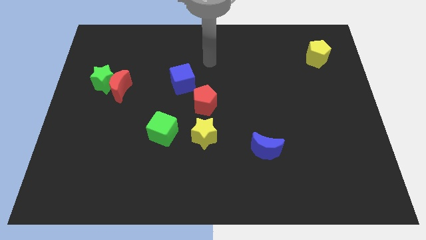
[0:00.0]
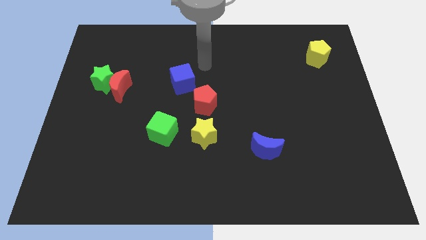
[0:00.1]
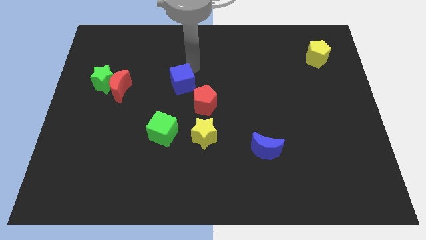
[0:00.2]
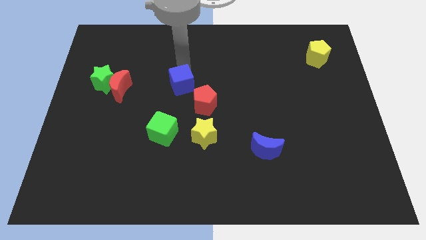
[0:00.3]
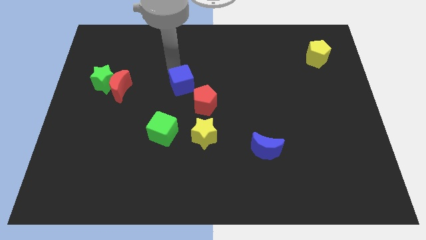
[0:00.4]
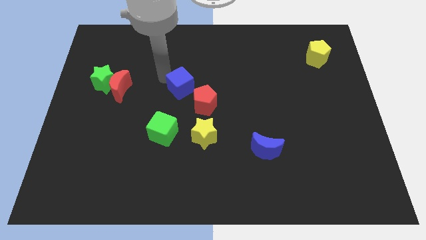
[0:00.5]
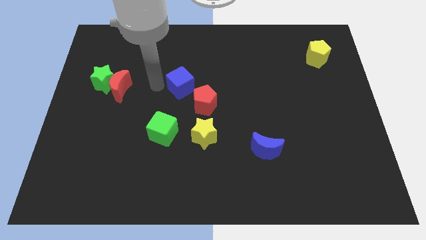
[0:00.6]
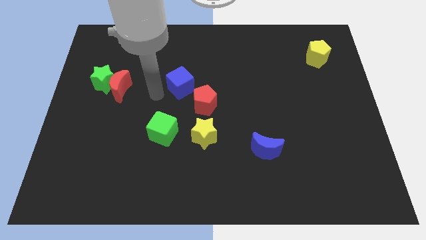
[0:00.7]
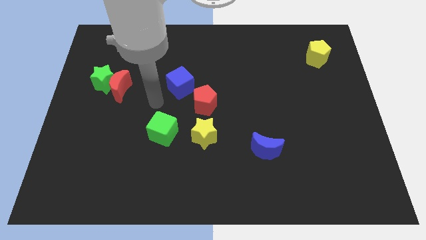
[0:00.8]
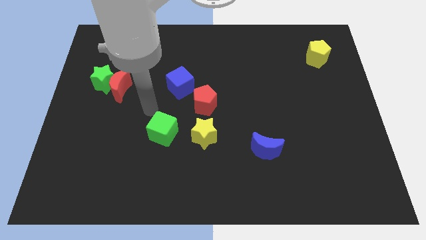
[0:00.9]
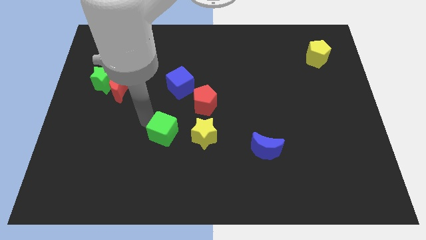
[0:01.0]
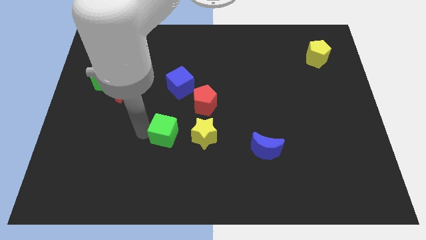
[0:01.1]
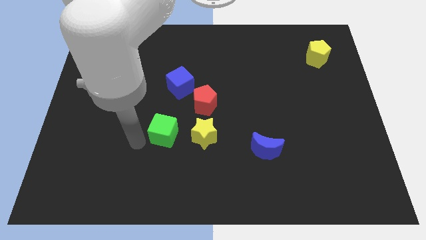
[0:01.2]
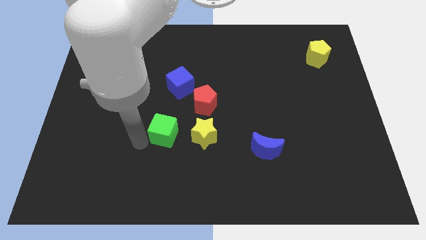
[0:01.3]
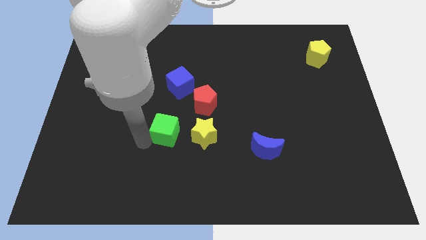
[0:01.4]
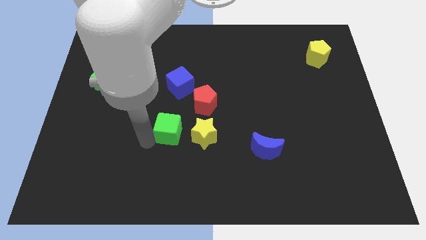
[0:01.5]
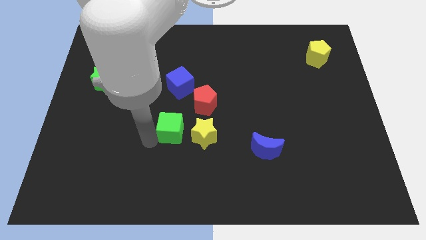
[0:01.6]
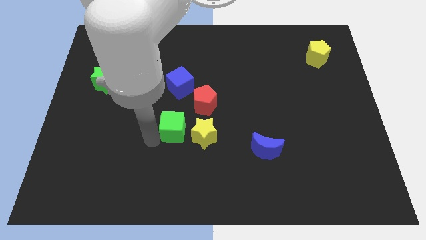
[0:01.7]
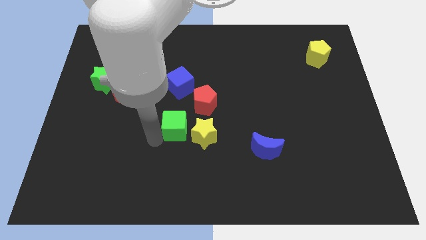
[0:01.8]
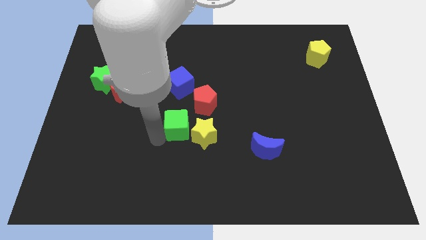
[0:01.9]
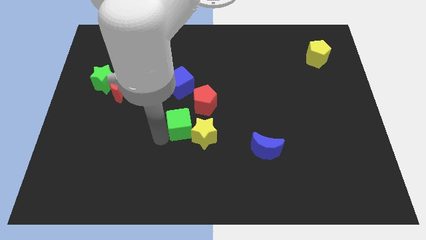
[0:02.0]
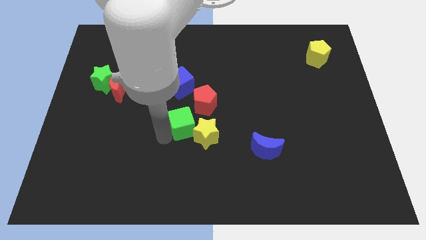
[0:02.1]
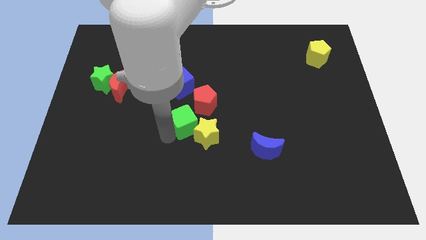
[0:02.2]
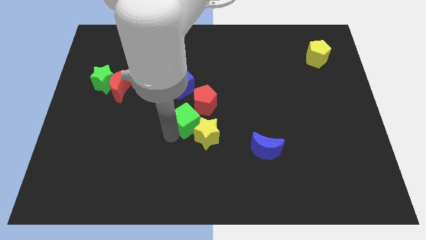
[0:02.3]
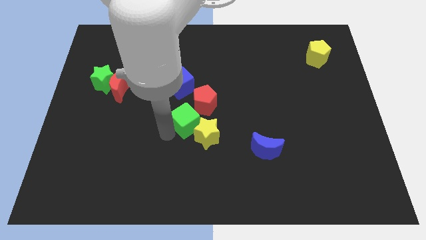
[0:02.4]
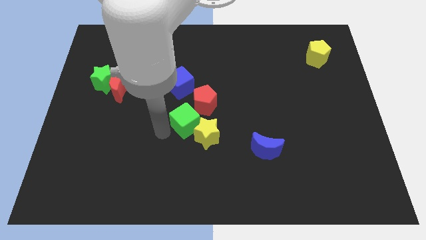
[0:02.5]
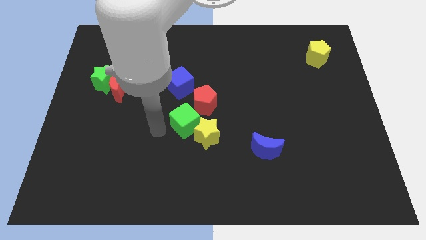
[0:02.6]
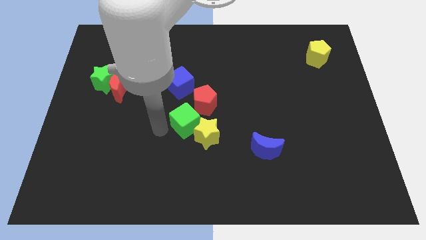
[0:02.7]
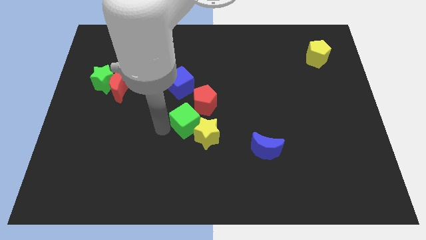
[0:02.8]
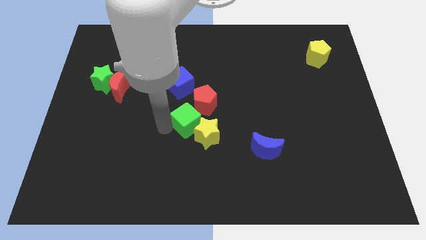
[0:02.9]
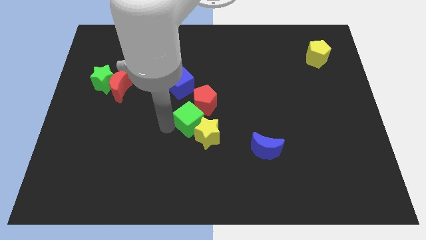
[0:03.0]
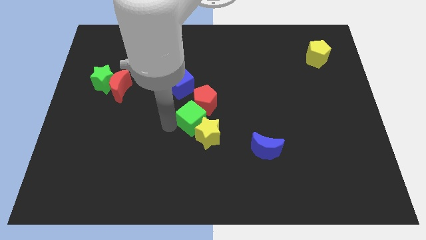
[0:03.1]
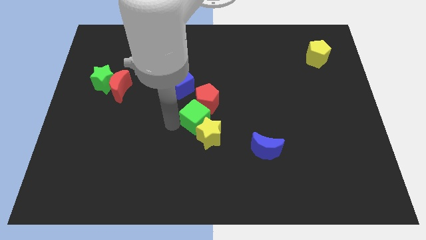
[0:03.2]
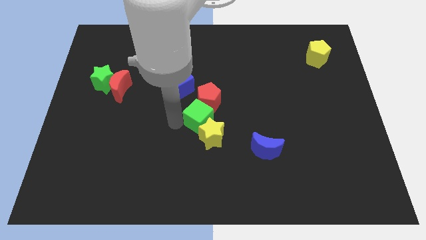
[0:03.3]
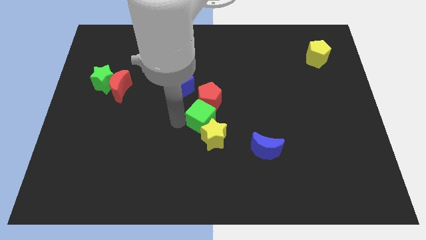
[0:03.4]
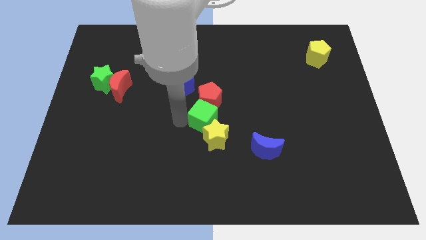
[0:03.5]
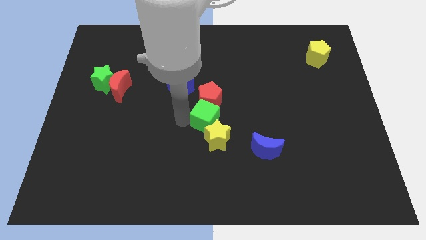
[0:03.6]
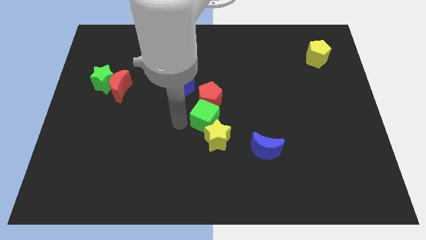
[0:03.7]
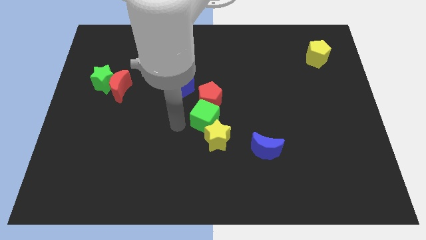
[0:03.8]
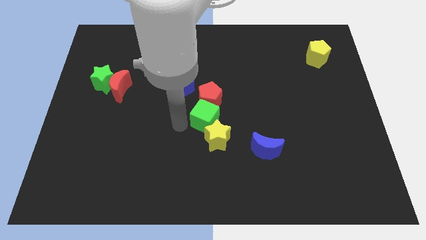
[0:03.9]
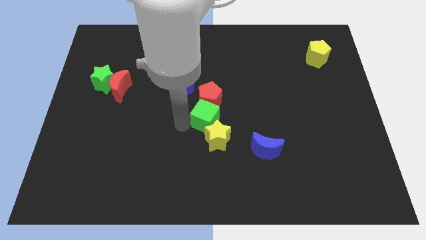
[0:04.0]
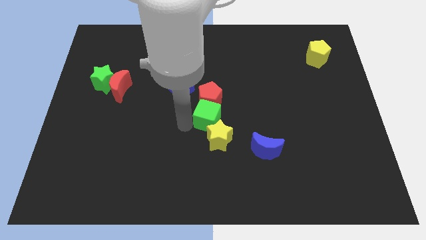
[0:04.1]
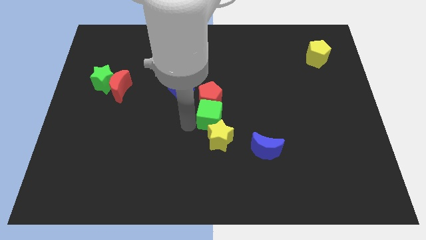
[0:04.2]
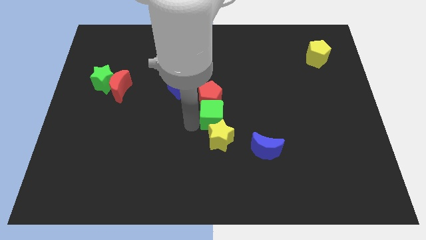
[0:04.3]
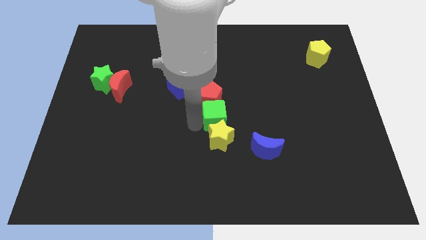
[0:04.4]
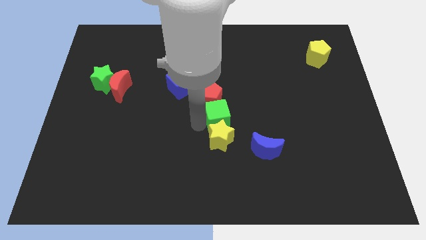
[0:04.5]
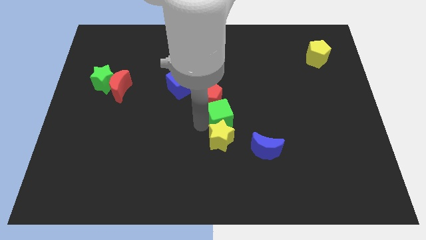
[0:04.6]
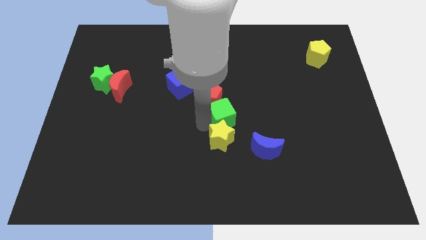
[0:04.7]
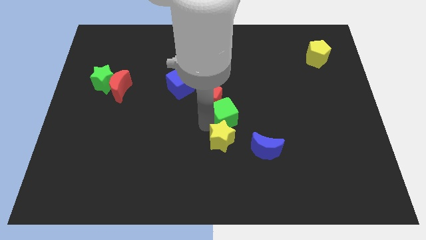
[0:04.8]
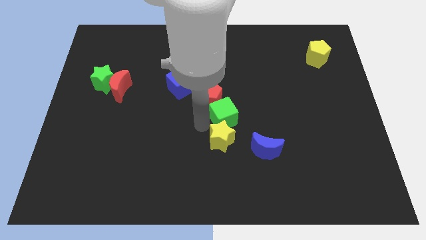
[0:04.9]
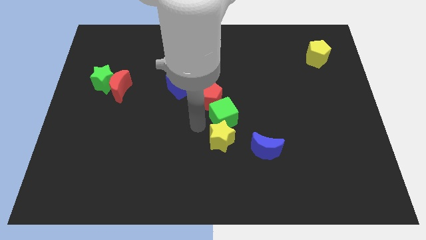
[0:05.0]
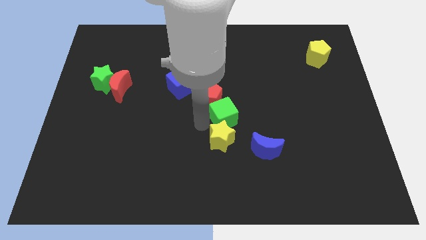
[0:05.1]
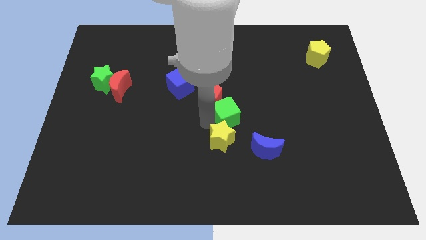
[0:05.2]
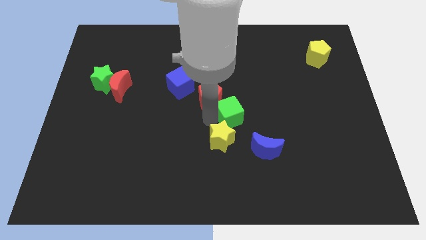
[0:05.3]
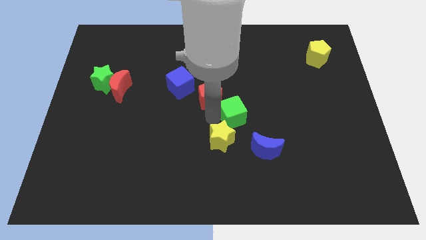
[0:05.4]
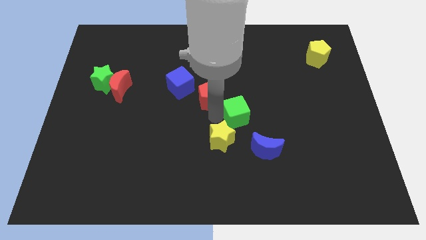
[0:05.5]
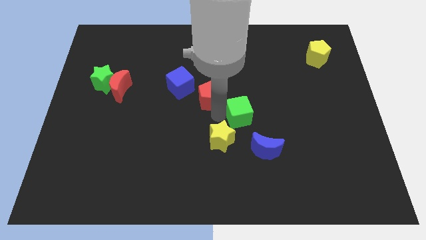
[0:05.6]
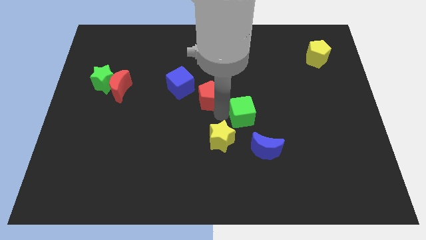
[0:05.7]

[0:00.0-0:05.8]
move the green cube above the blue moon

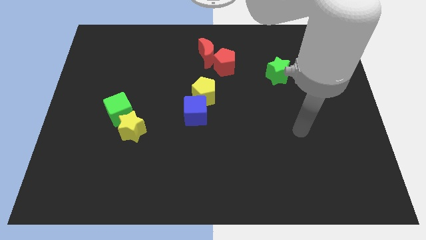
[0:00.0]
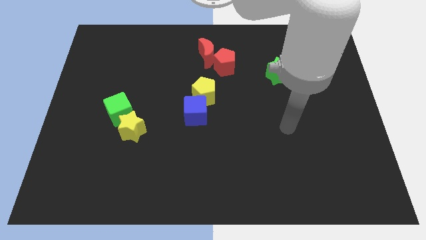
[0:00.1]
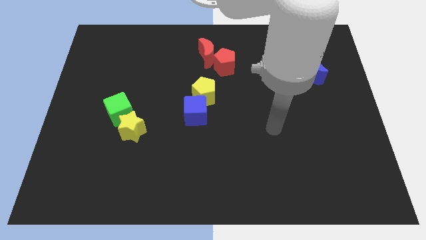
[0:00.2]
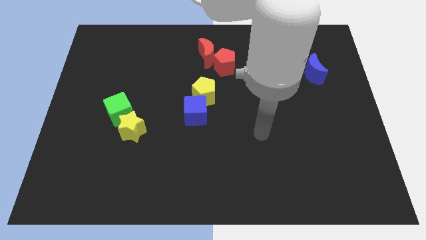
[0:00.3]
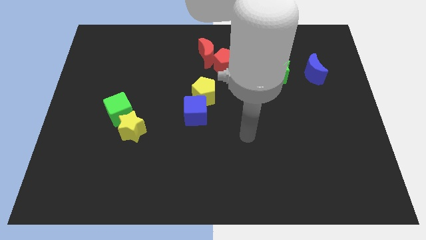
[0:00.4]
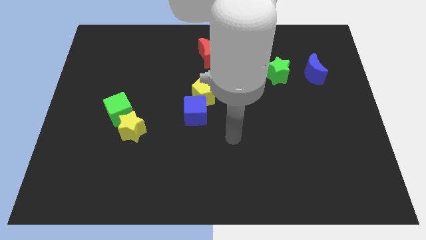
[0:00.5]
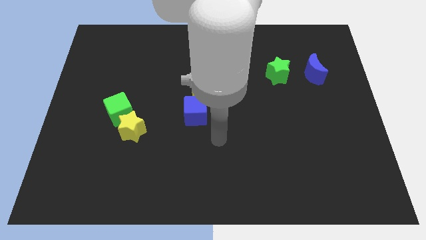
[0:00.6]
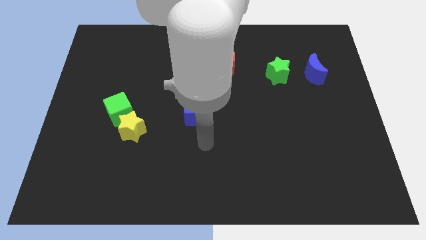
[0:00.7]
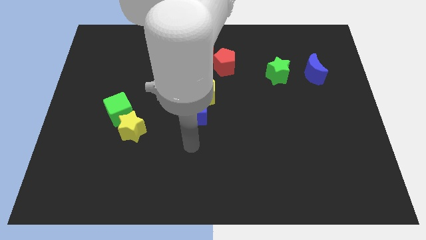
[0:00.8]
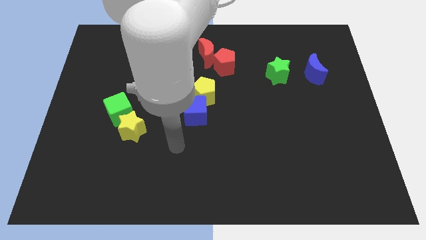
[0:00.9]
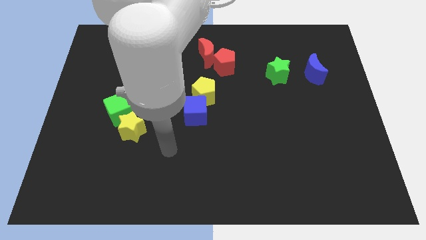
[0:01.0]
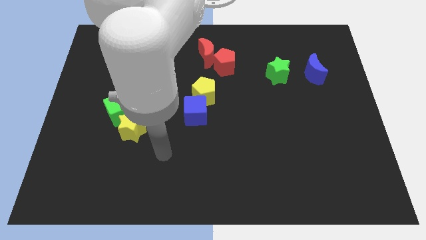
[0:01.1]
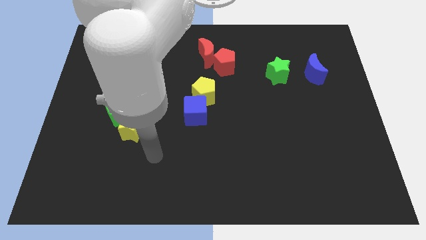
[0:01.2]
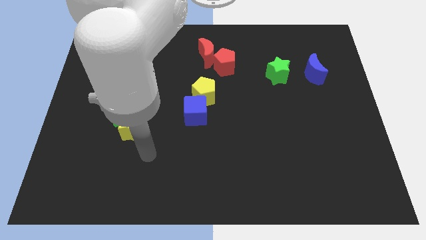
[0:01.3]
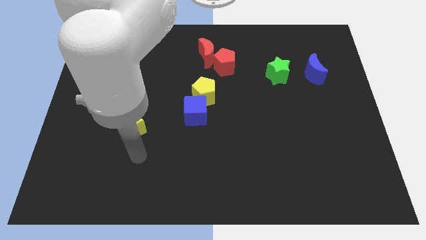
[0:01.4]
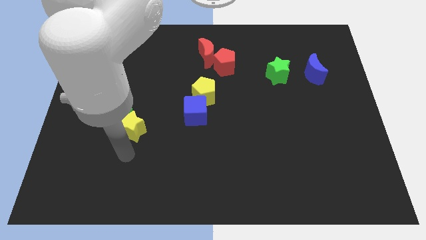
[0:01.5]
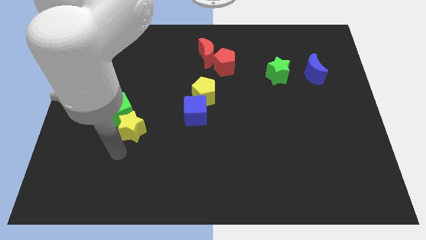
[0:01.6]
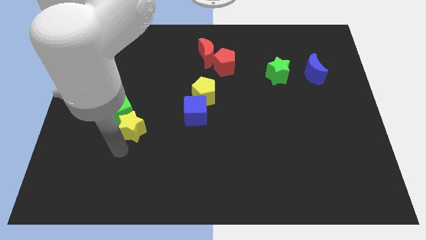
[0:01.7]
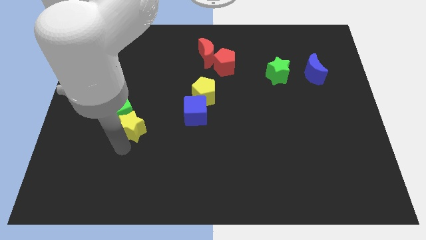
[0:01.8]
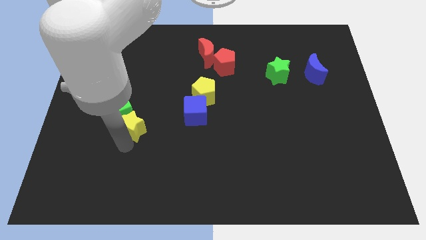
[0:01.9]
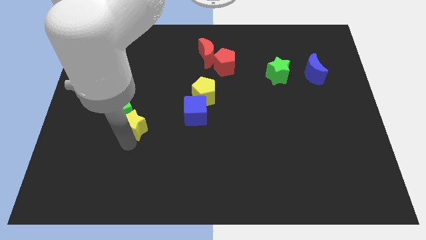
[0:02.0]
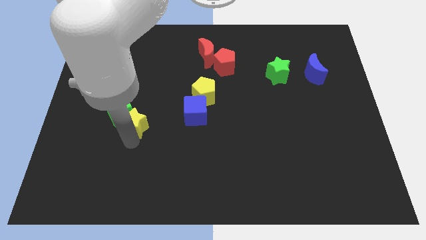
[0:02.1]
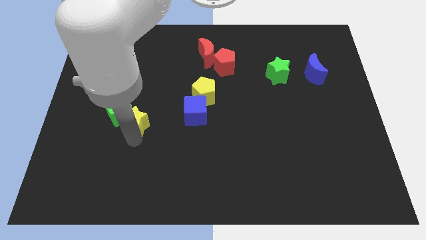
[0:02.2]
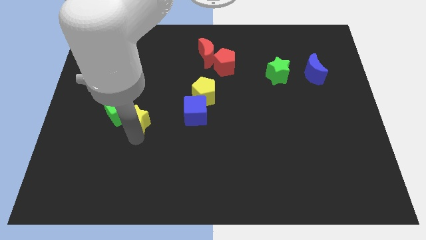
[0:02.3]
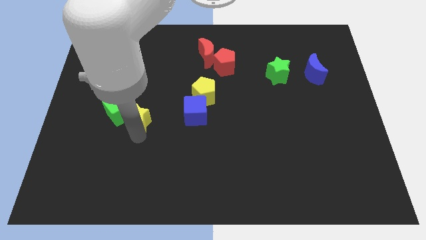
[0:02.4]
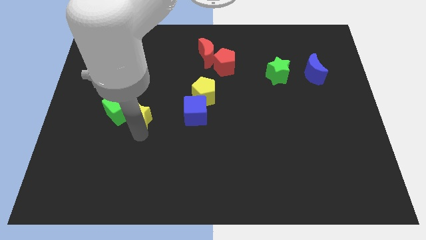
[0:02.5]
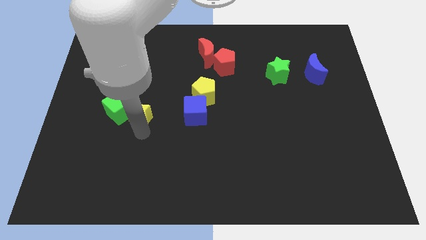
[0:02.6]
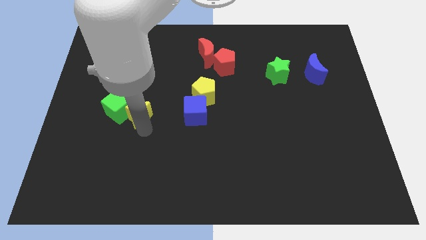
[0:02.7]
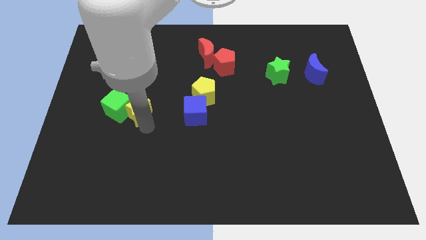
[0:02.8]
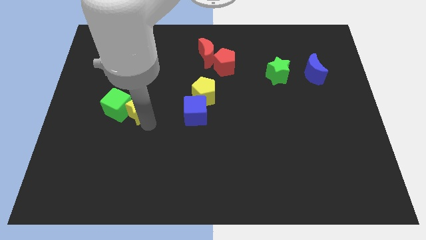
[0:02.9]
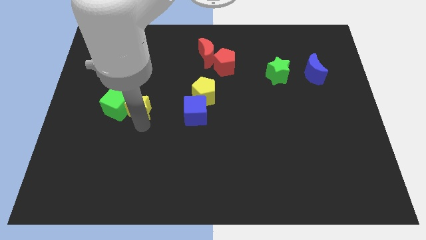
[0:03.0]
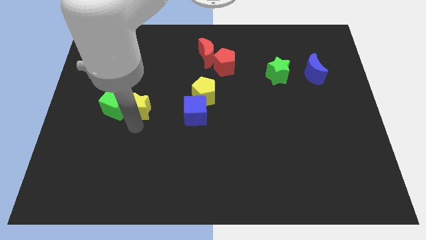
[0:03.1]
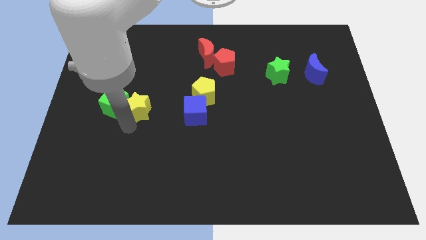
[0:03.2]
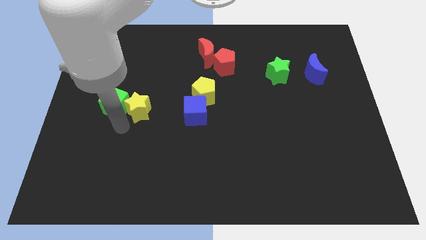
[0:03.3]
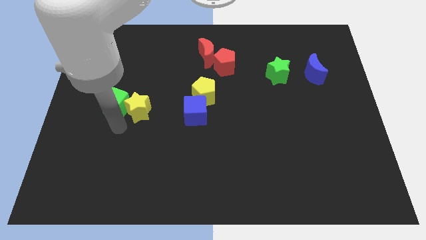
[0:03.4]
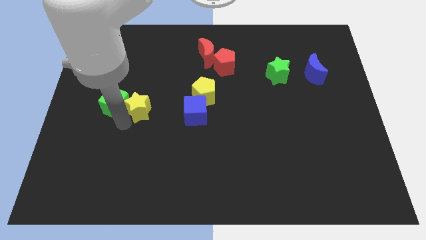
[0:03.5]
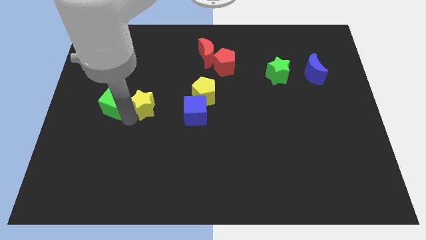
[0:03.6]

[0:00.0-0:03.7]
slide the yellow star to the left side of the yellow pentagon
